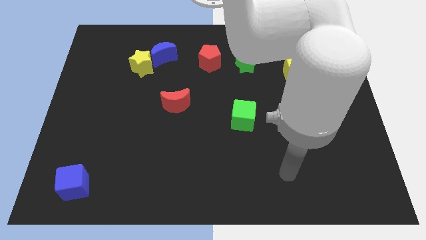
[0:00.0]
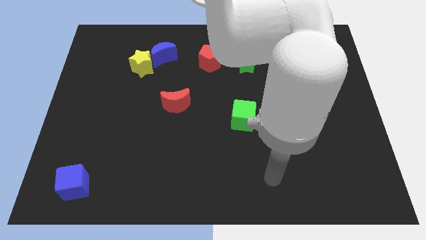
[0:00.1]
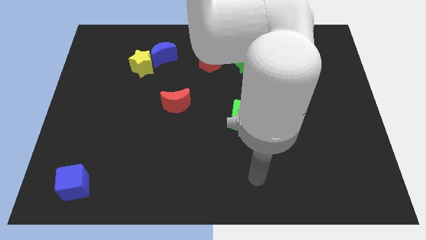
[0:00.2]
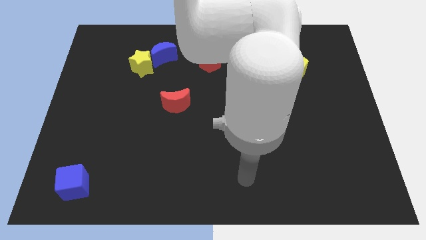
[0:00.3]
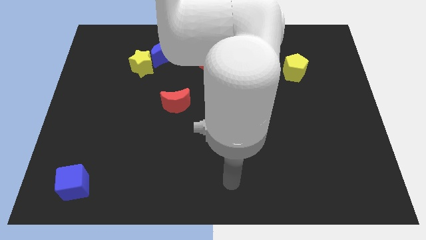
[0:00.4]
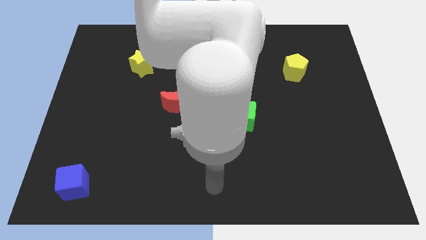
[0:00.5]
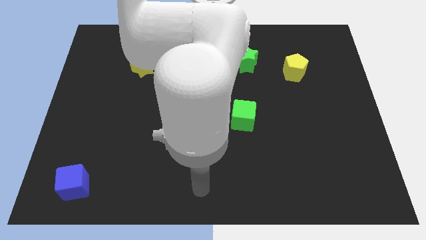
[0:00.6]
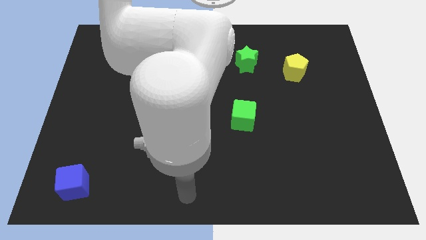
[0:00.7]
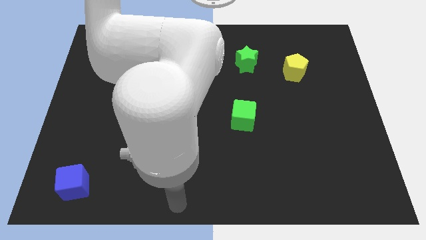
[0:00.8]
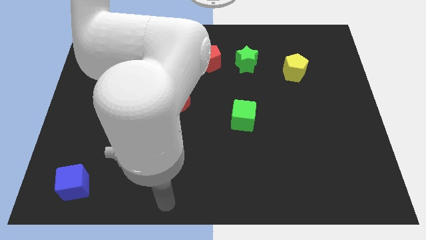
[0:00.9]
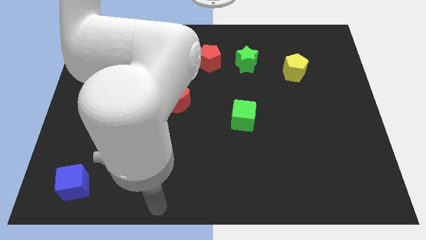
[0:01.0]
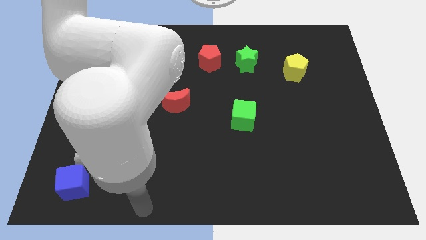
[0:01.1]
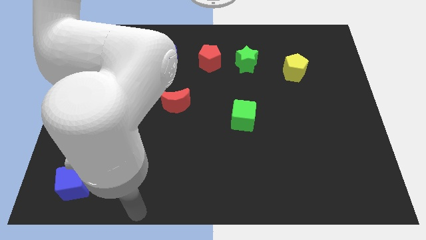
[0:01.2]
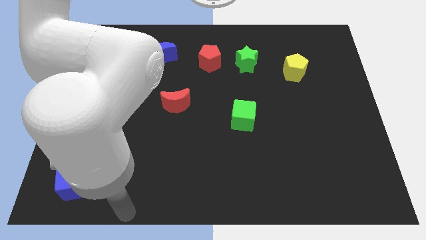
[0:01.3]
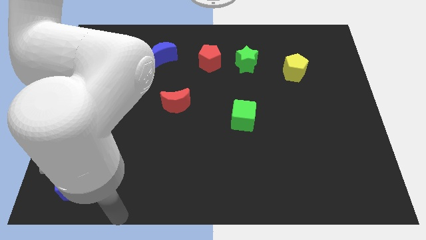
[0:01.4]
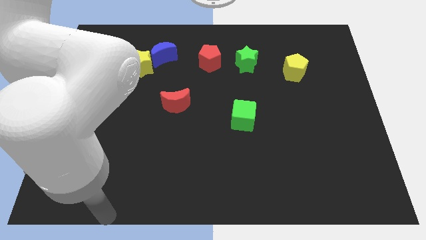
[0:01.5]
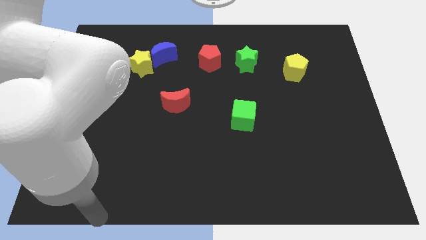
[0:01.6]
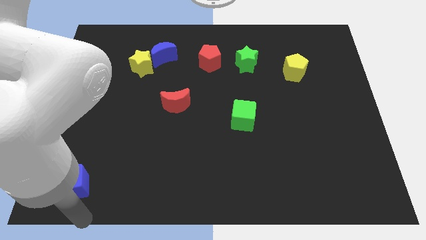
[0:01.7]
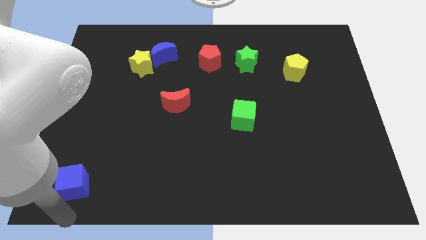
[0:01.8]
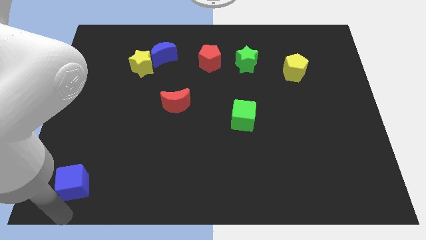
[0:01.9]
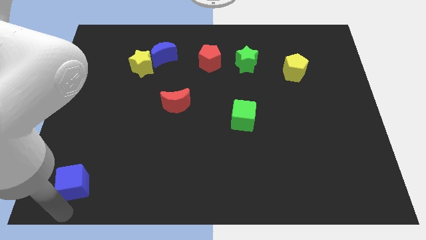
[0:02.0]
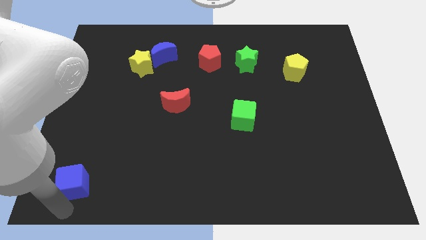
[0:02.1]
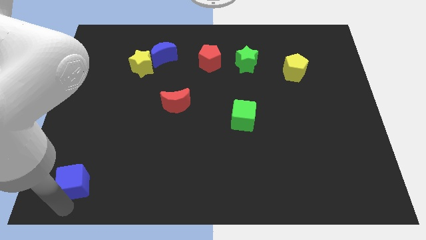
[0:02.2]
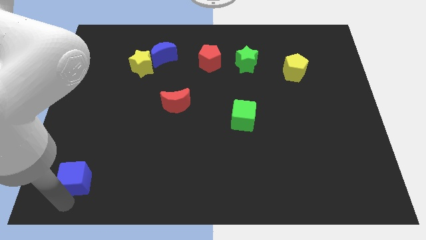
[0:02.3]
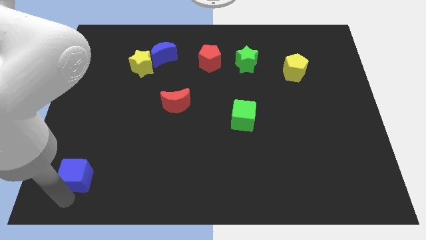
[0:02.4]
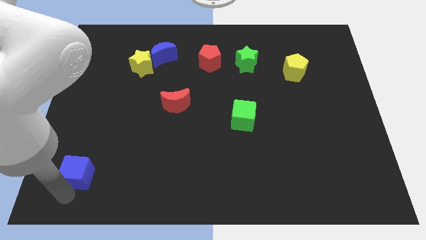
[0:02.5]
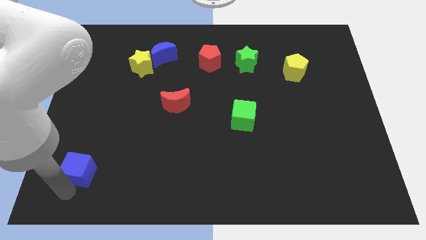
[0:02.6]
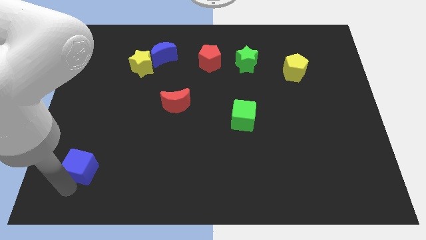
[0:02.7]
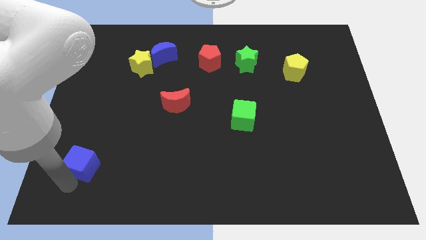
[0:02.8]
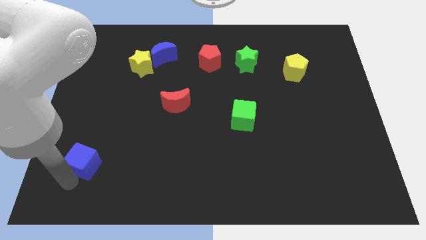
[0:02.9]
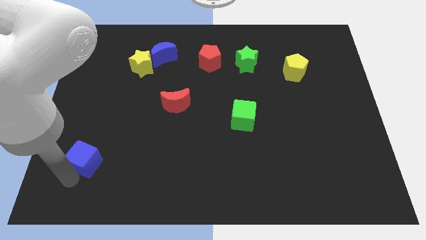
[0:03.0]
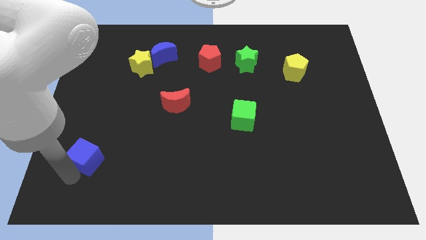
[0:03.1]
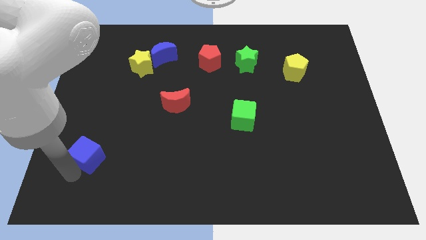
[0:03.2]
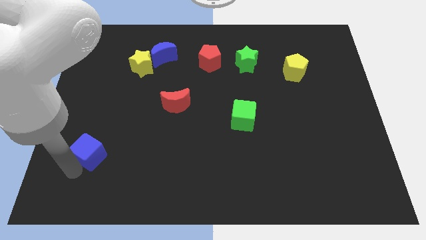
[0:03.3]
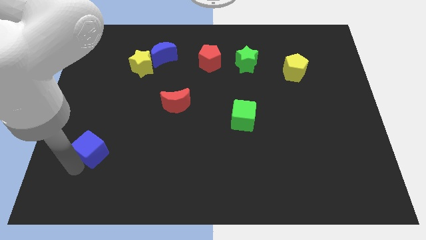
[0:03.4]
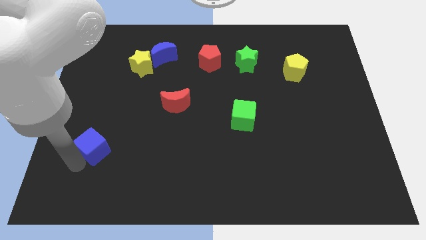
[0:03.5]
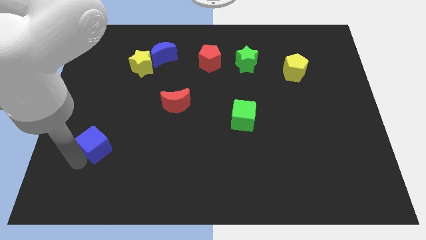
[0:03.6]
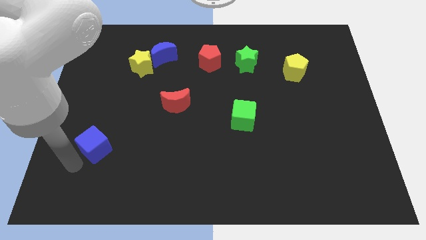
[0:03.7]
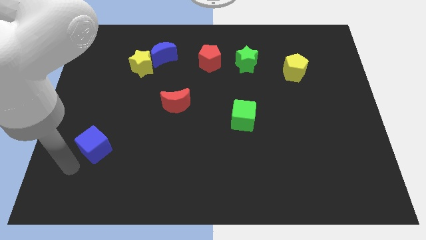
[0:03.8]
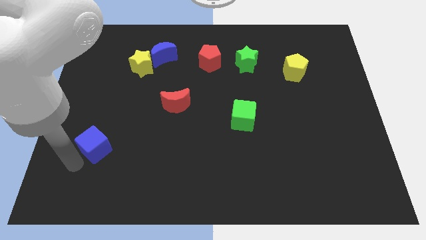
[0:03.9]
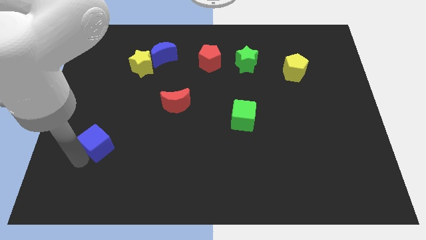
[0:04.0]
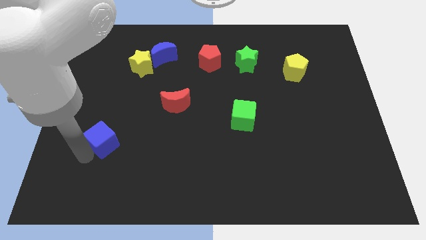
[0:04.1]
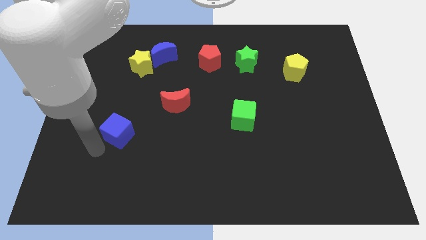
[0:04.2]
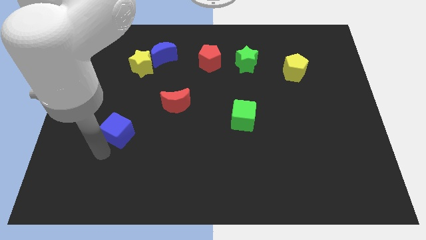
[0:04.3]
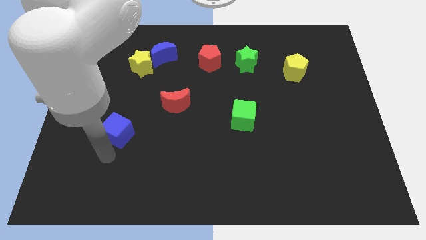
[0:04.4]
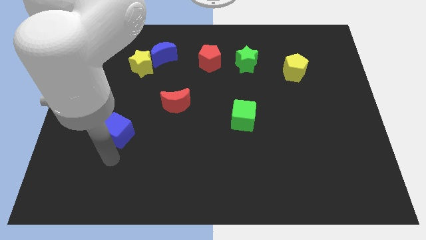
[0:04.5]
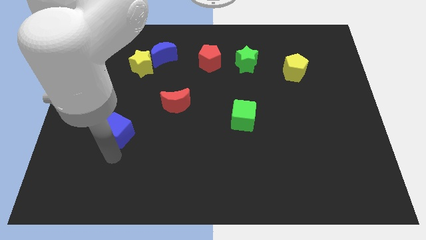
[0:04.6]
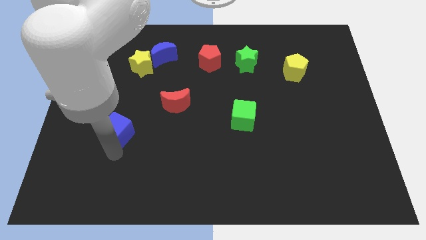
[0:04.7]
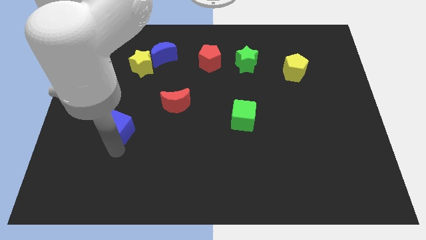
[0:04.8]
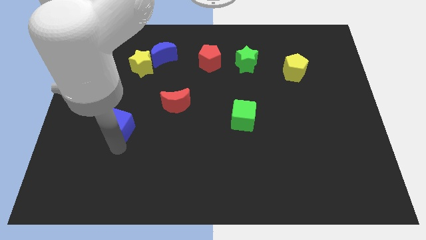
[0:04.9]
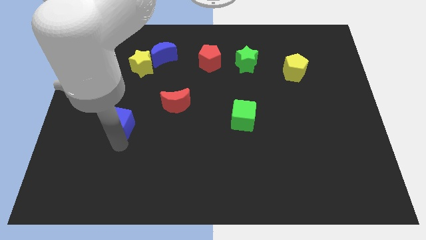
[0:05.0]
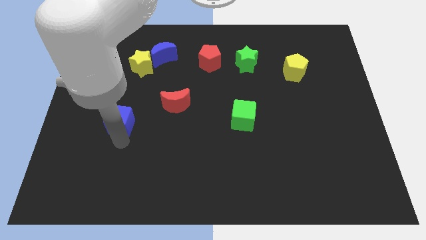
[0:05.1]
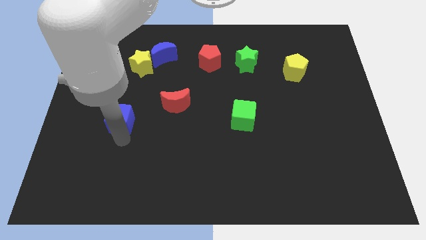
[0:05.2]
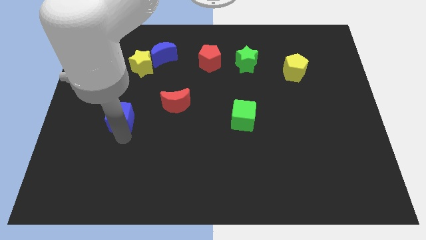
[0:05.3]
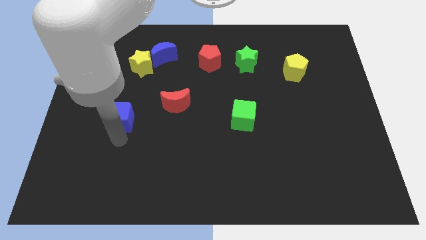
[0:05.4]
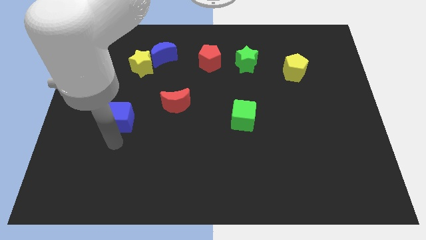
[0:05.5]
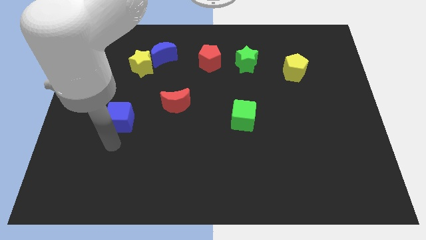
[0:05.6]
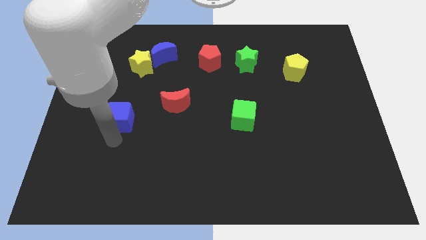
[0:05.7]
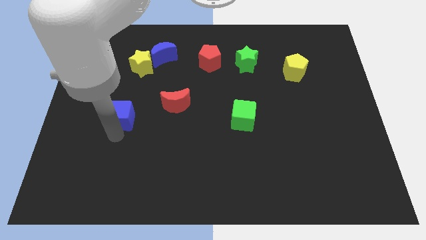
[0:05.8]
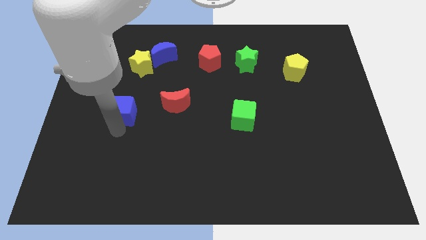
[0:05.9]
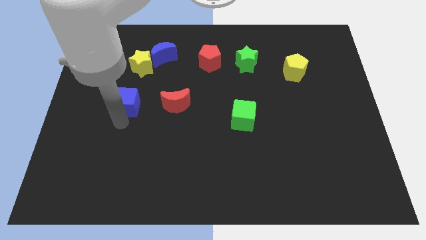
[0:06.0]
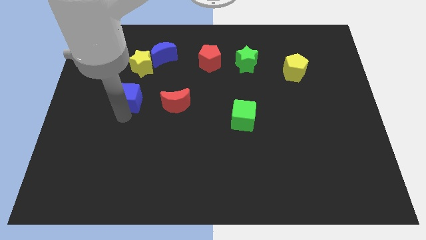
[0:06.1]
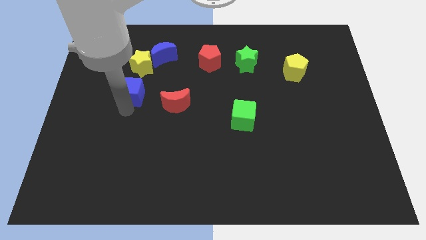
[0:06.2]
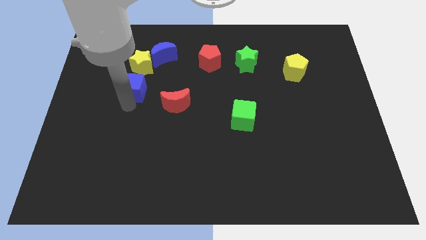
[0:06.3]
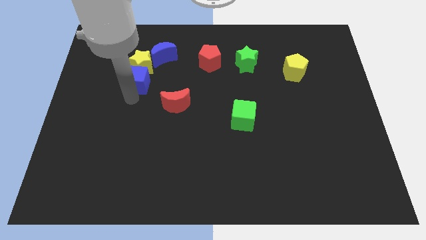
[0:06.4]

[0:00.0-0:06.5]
put the blue cube towards the yellow star

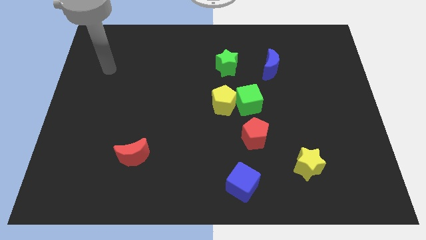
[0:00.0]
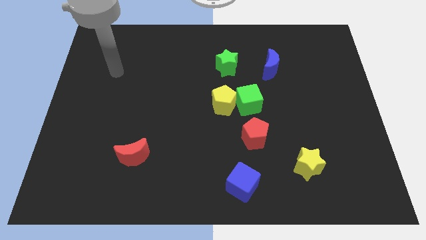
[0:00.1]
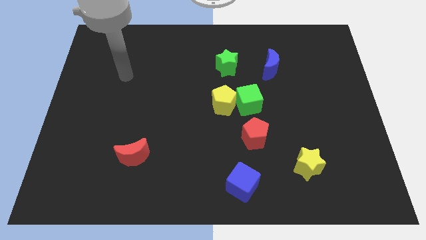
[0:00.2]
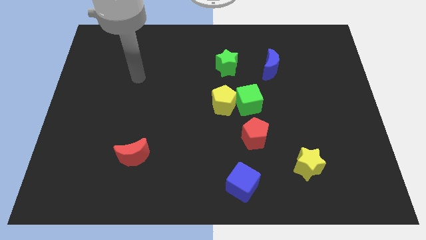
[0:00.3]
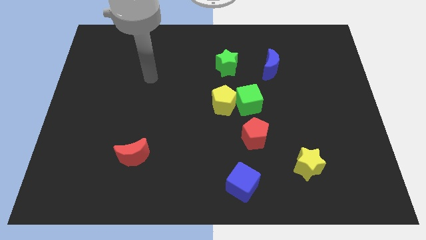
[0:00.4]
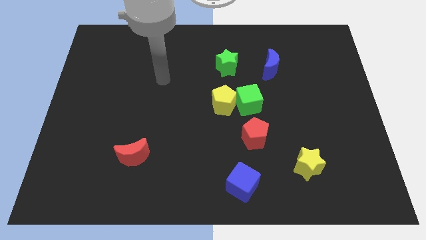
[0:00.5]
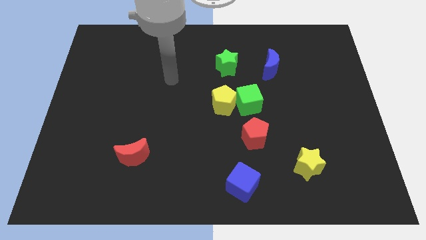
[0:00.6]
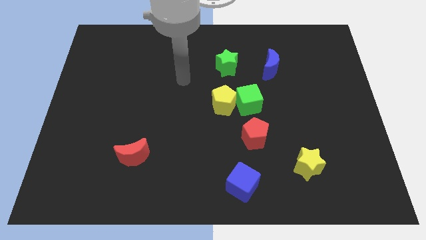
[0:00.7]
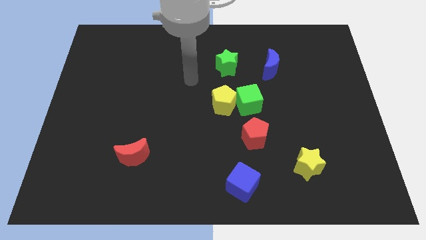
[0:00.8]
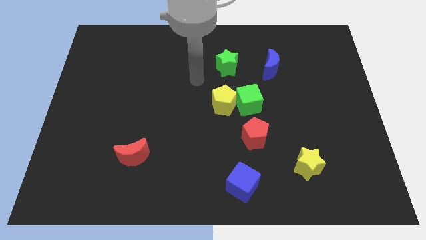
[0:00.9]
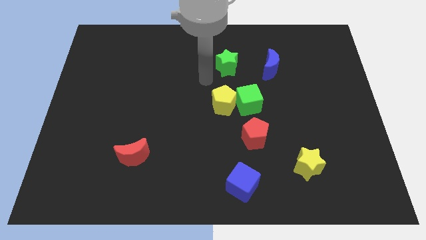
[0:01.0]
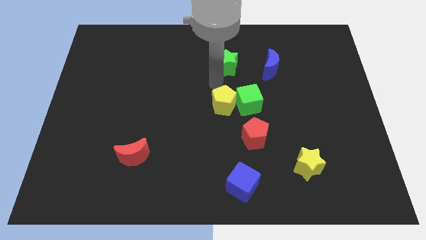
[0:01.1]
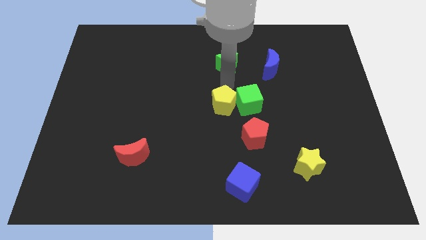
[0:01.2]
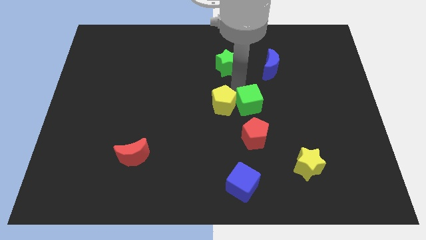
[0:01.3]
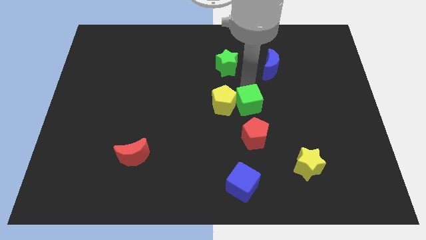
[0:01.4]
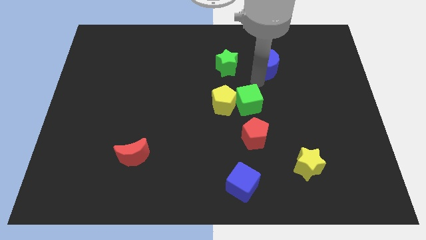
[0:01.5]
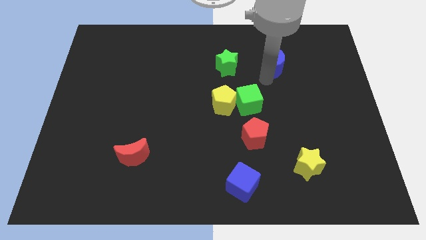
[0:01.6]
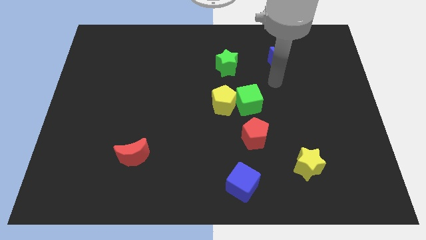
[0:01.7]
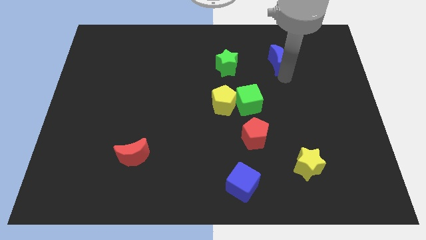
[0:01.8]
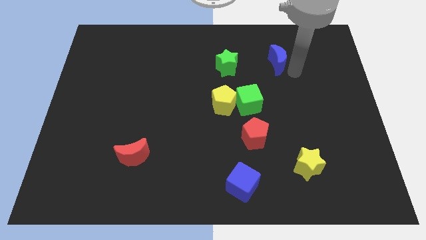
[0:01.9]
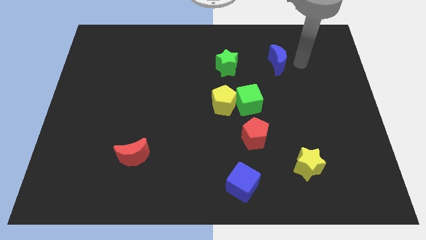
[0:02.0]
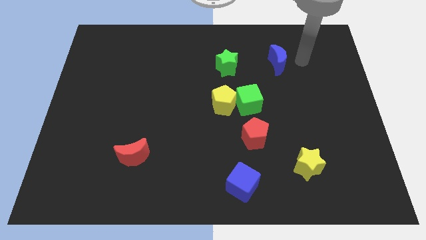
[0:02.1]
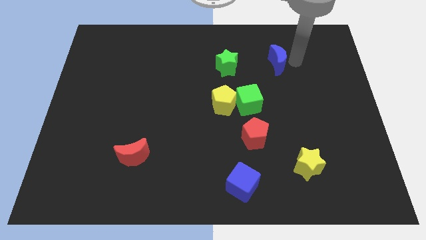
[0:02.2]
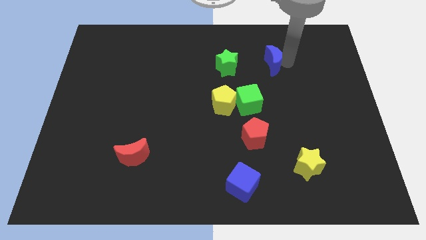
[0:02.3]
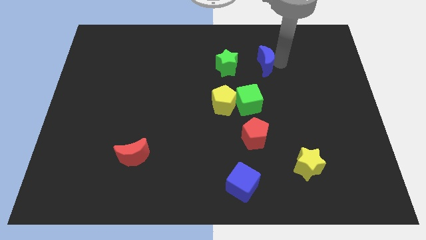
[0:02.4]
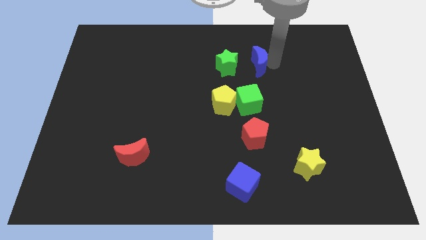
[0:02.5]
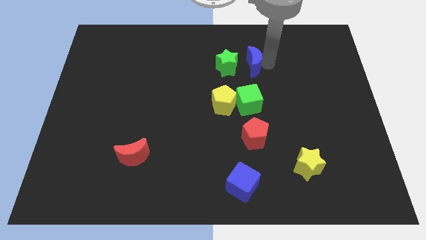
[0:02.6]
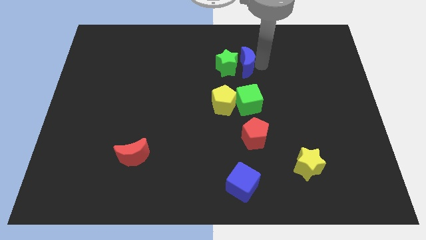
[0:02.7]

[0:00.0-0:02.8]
put the blue moon next to the green star
